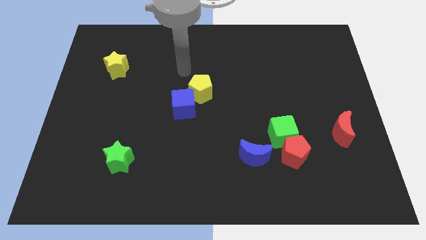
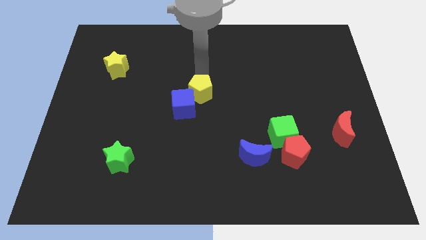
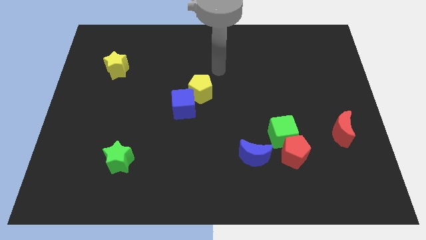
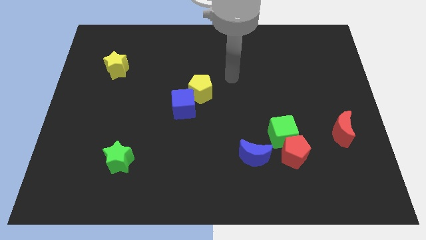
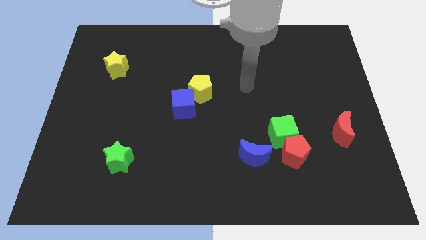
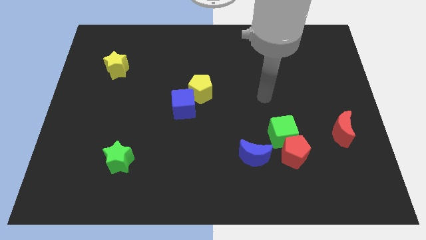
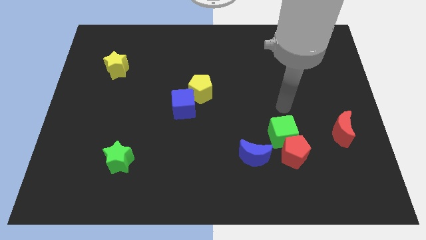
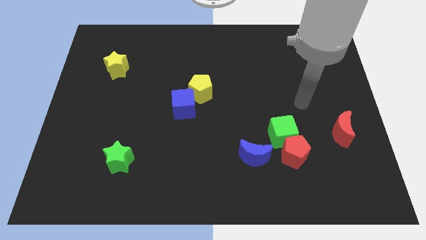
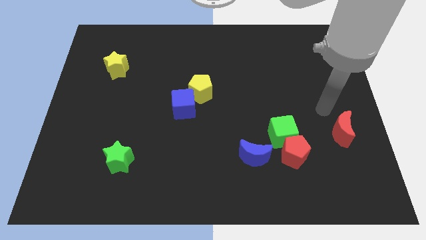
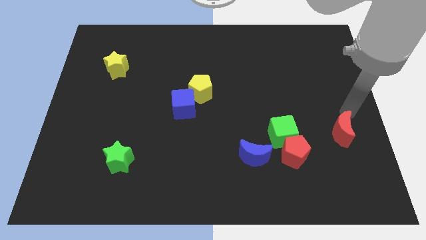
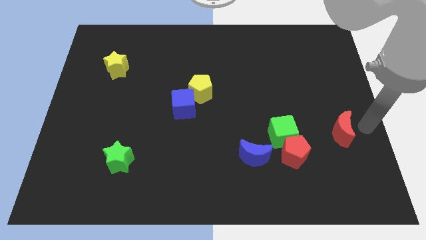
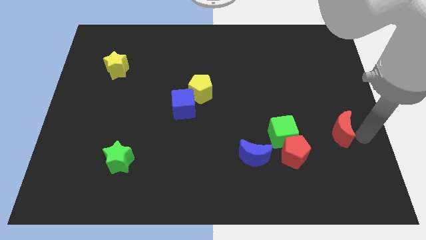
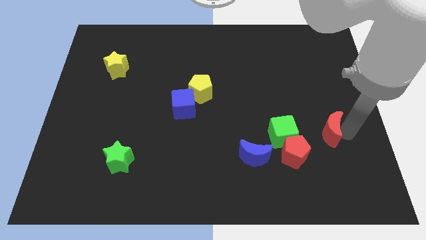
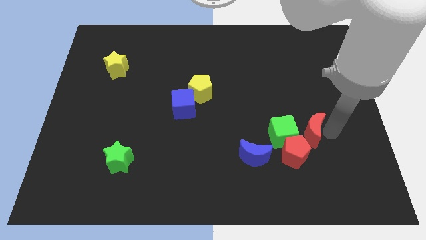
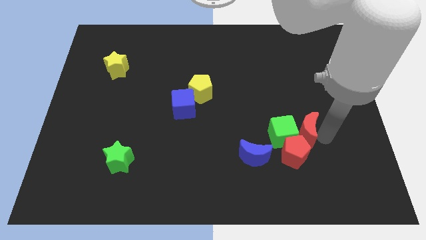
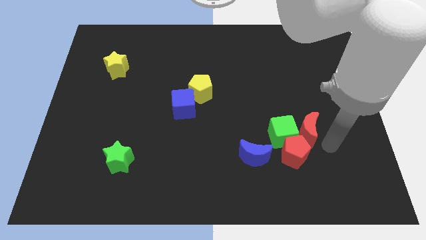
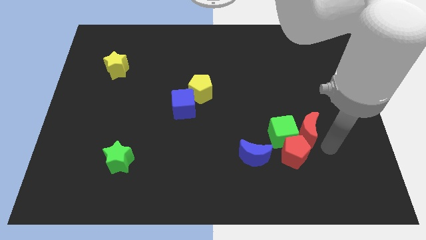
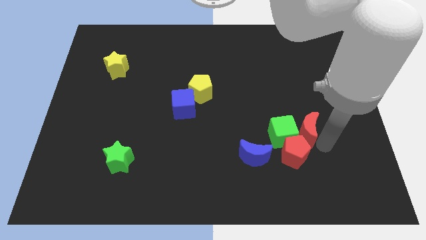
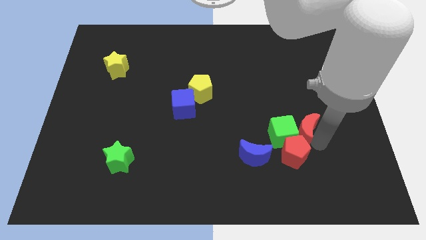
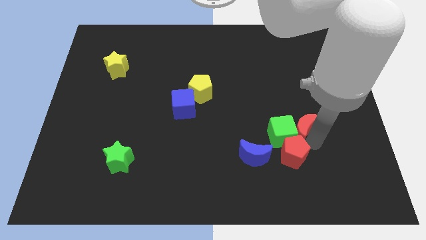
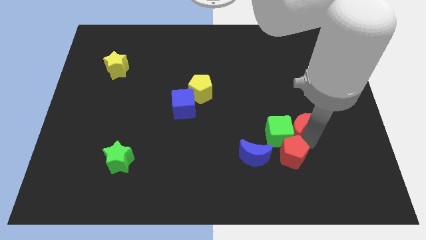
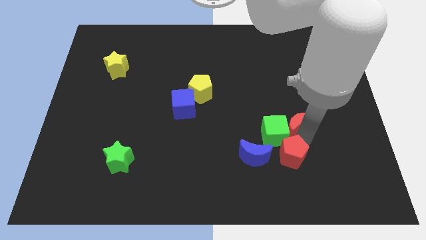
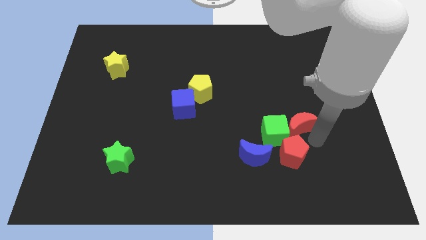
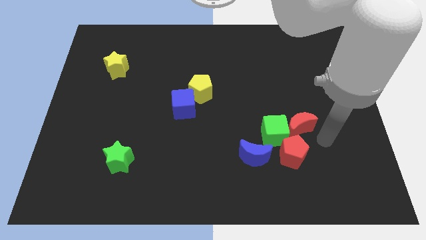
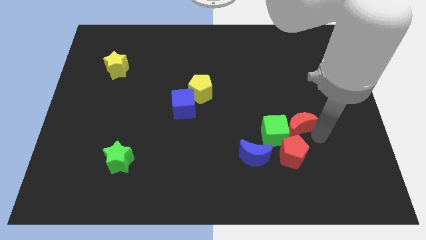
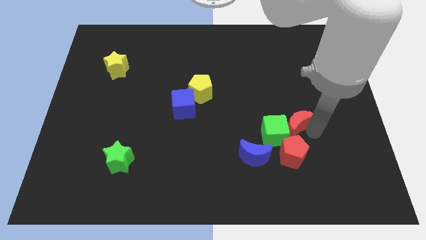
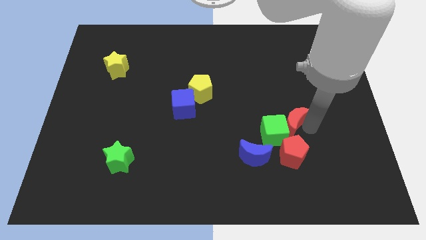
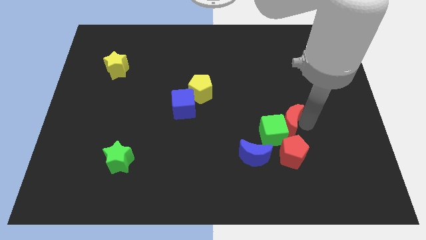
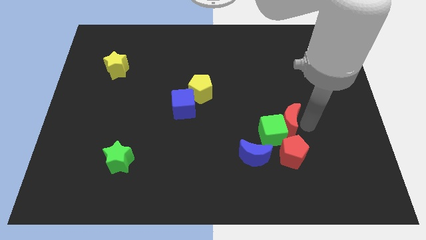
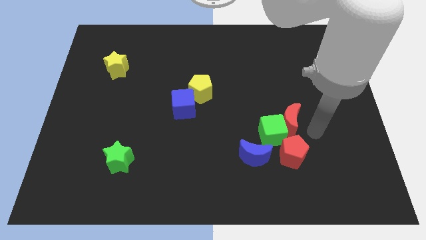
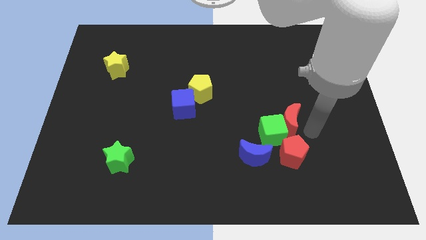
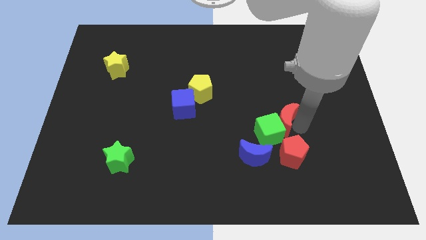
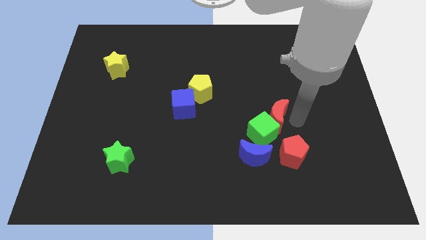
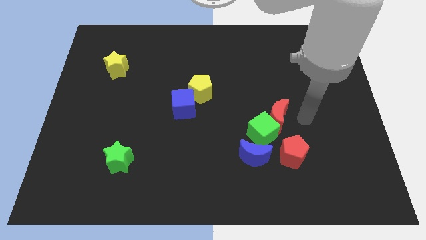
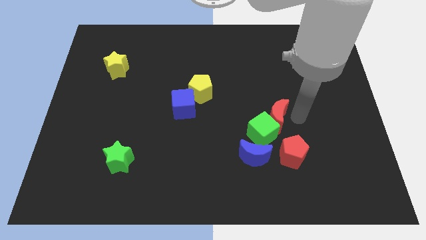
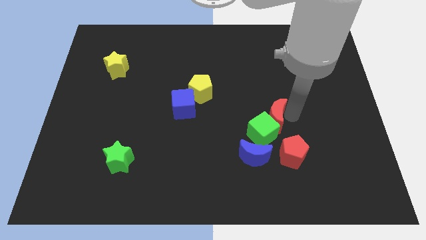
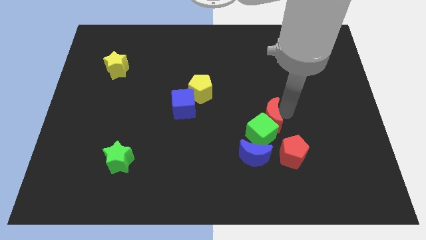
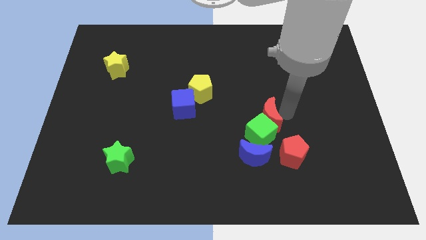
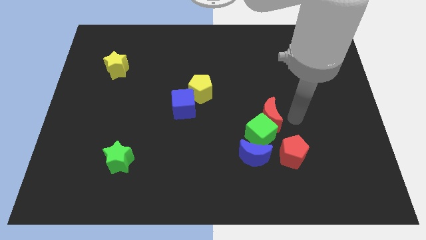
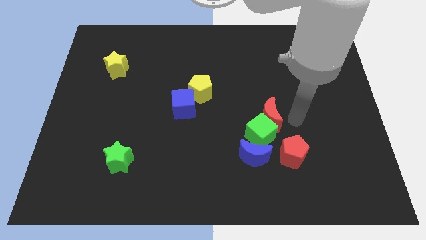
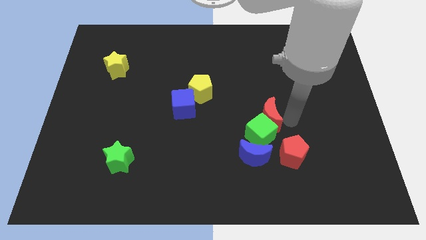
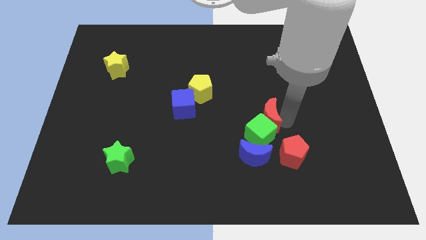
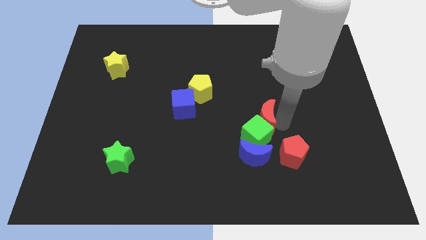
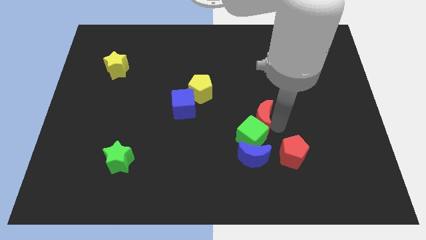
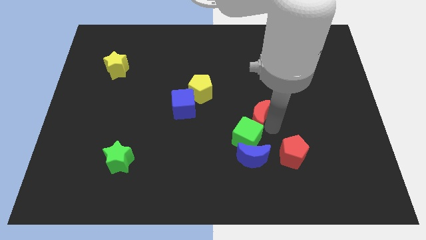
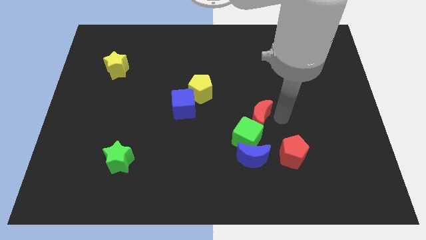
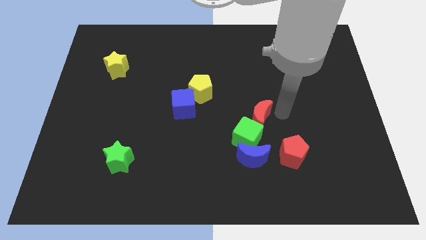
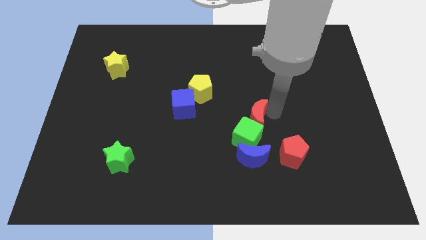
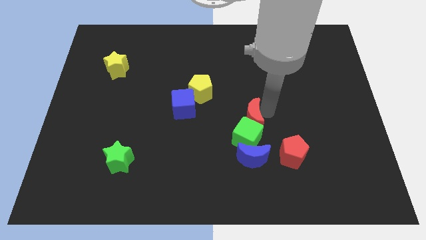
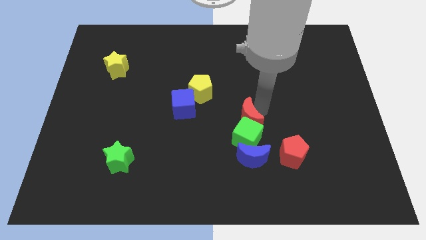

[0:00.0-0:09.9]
move the red moon left

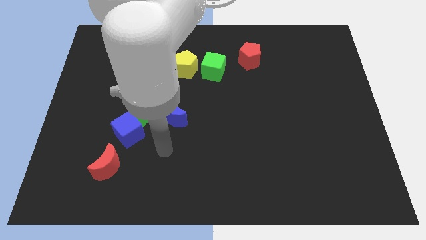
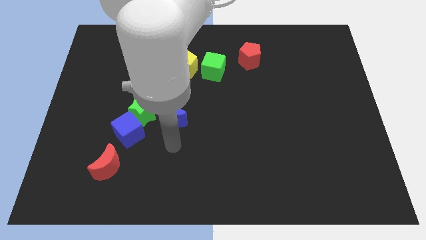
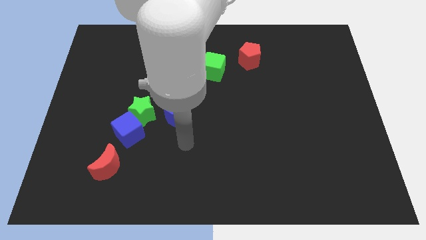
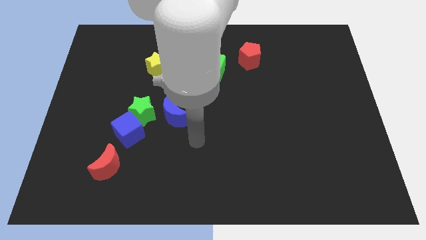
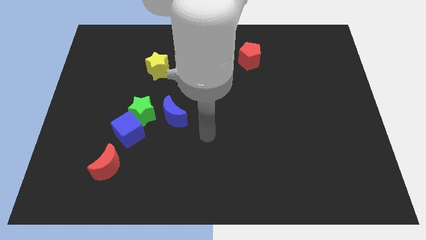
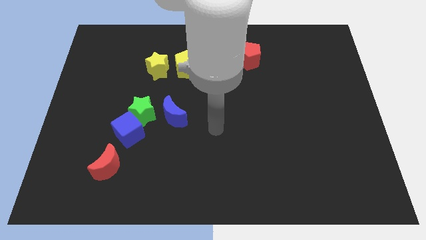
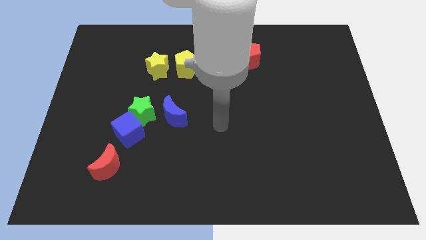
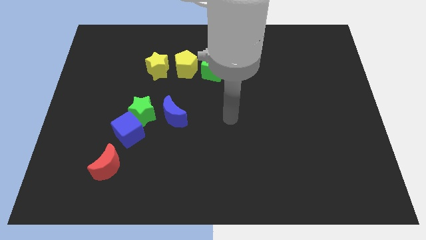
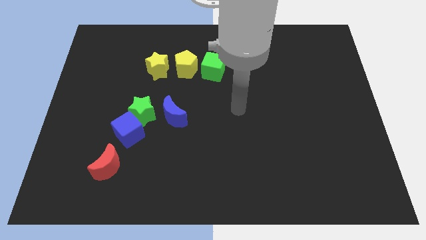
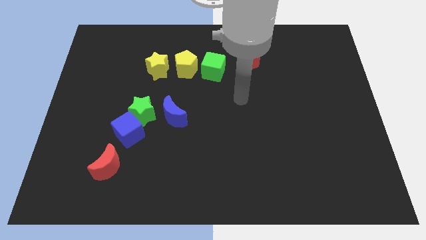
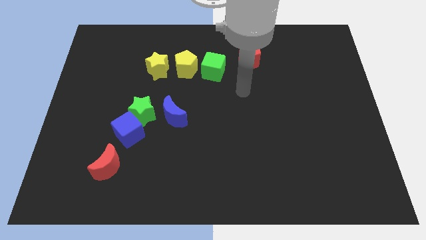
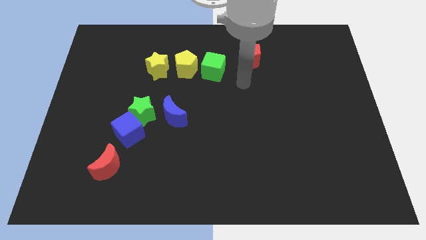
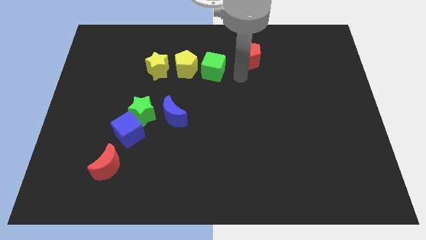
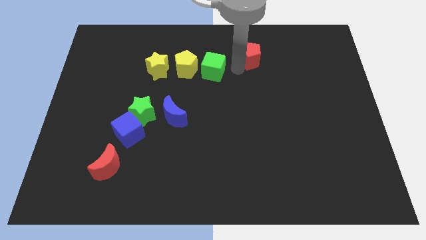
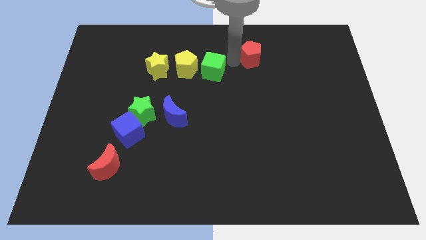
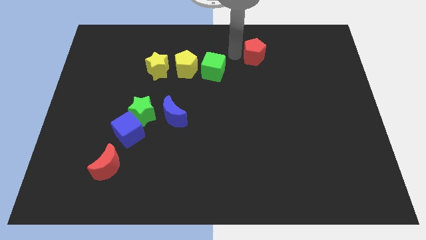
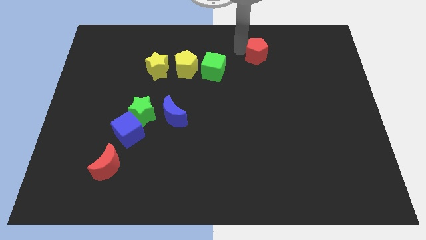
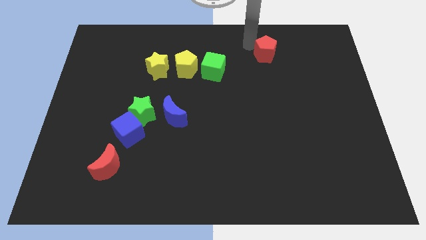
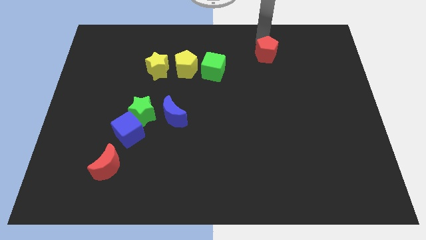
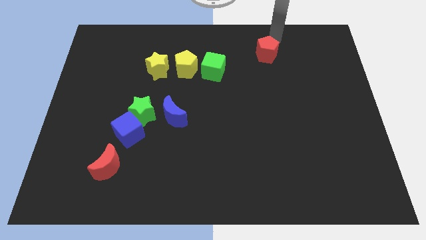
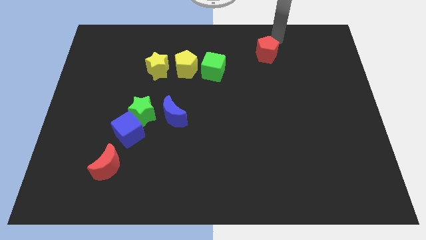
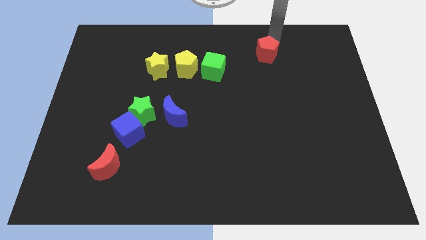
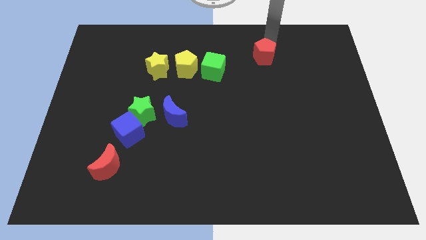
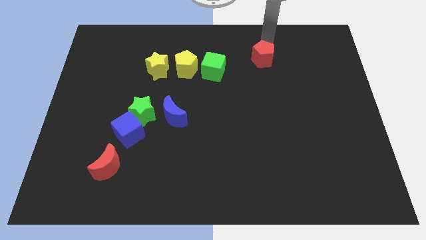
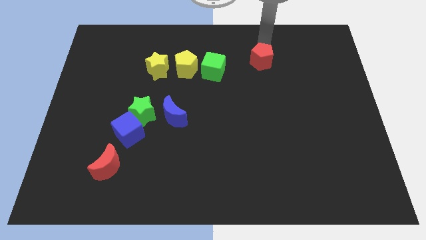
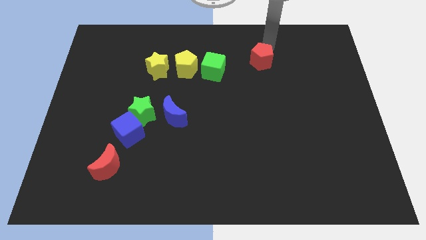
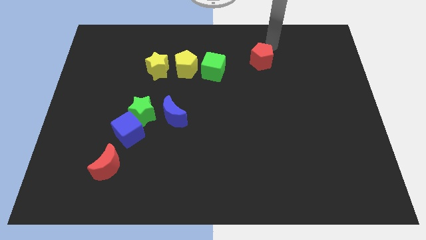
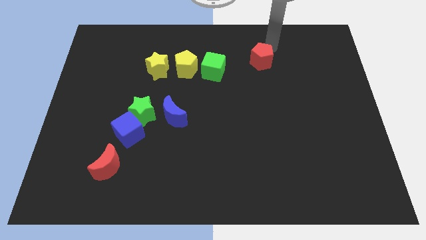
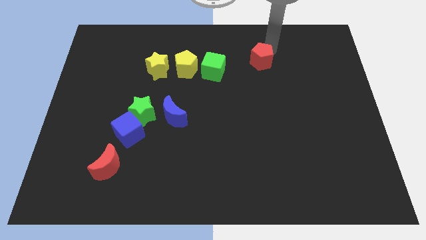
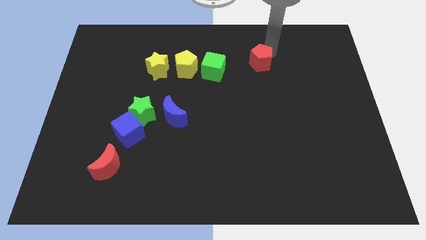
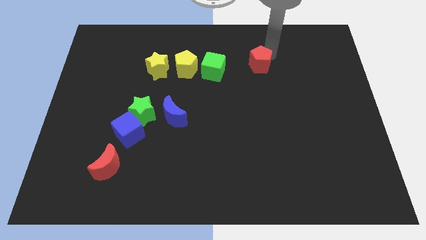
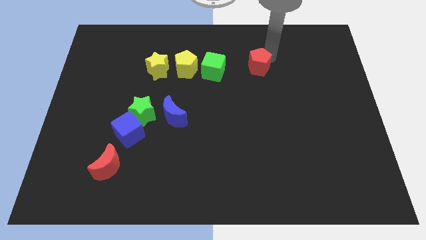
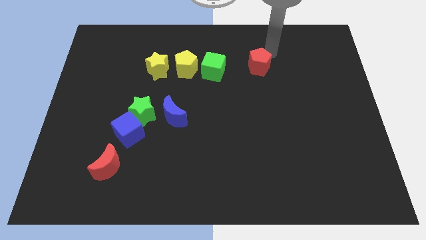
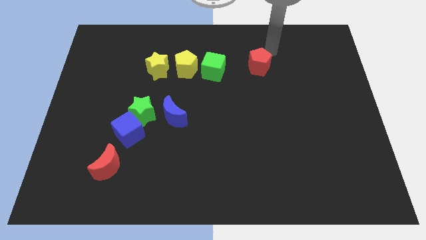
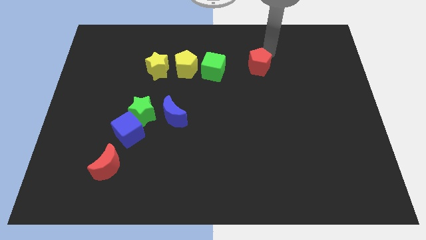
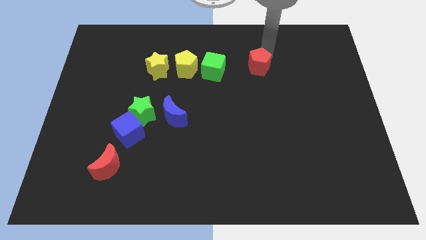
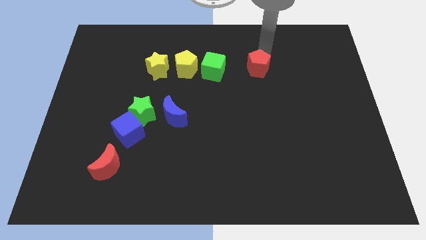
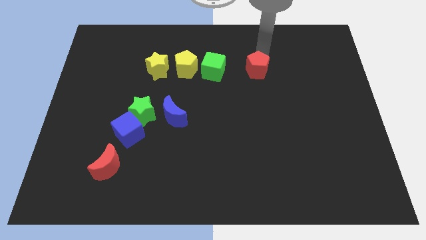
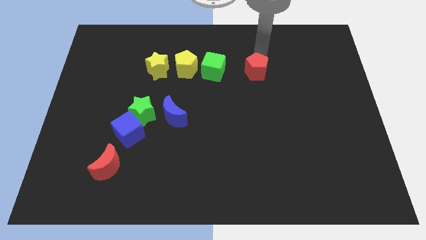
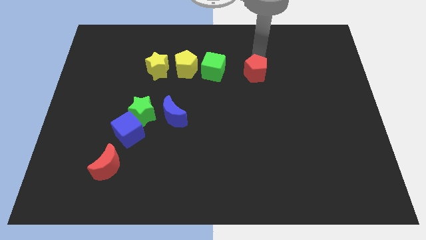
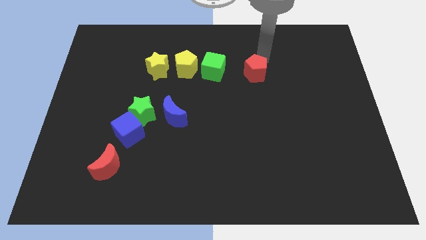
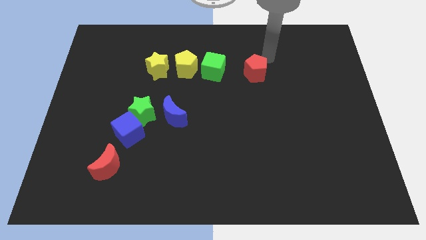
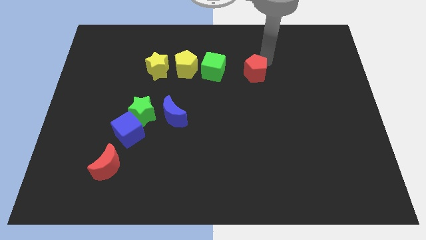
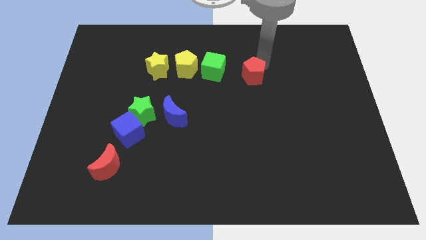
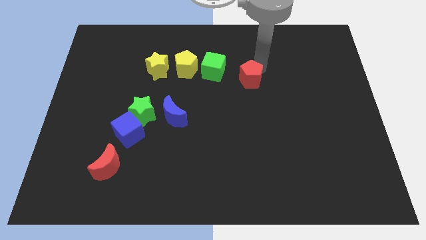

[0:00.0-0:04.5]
move the red pentagon downwards slightly
